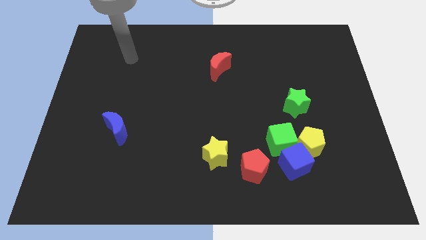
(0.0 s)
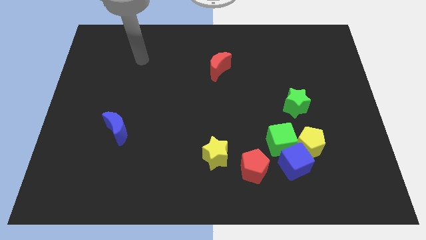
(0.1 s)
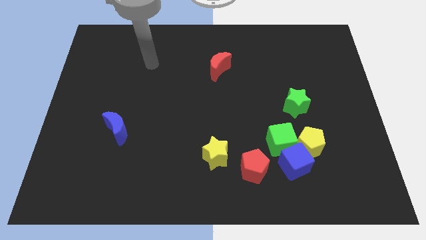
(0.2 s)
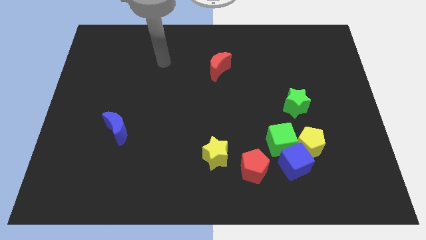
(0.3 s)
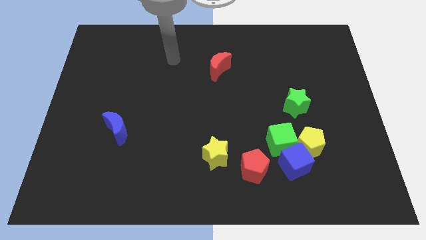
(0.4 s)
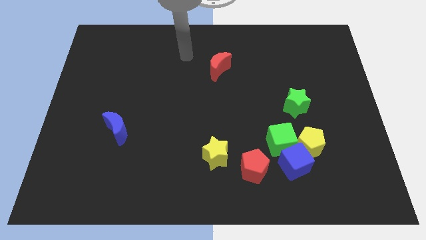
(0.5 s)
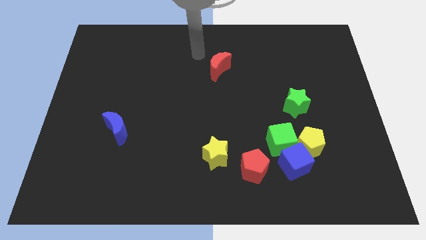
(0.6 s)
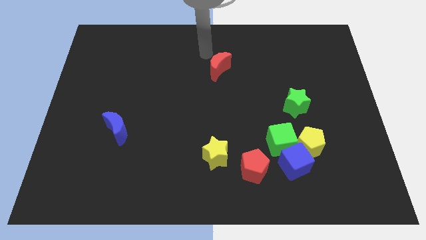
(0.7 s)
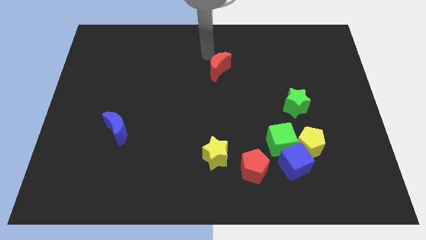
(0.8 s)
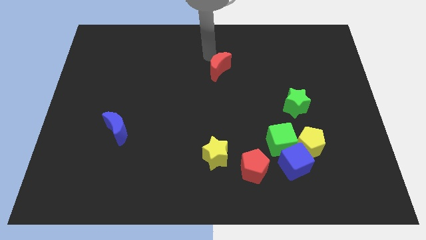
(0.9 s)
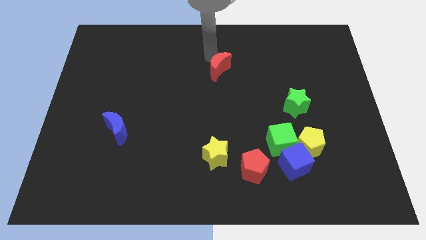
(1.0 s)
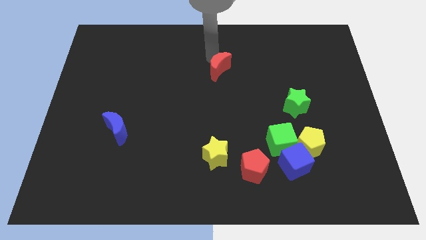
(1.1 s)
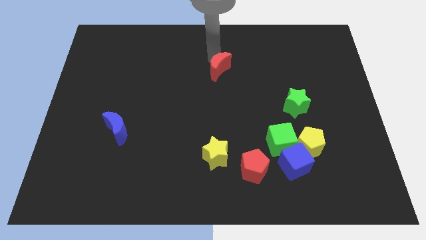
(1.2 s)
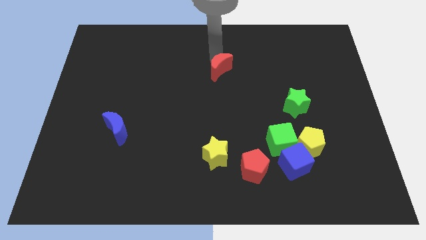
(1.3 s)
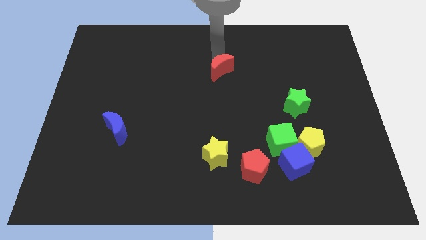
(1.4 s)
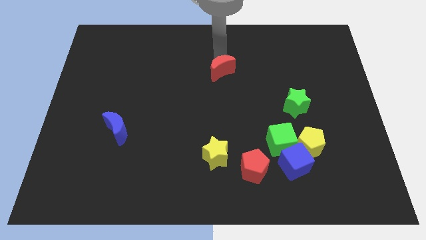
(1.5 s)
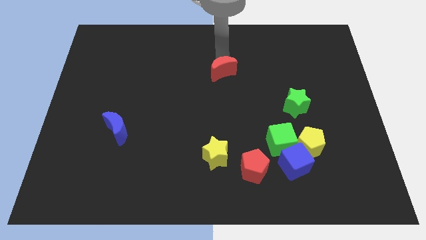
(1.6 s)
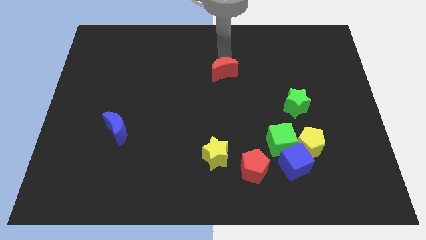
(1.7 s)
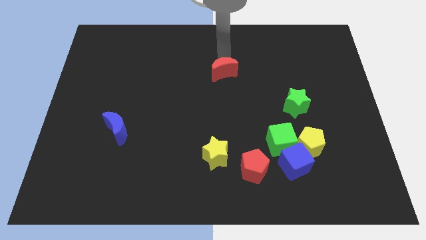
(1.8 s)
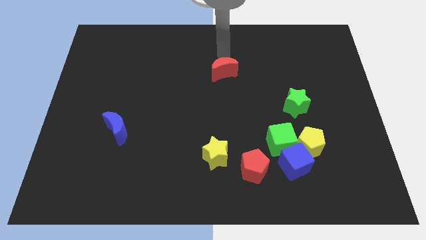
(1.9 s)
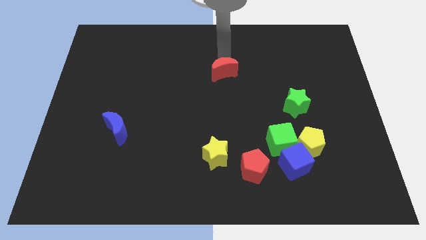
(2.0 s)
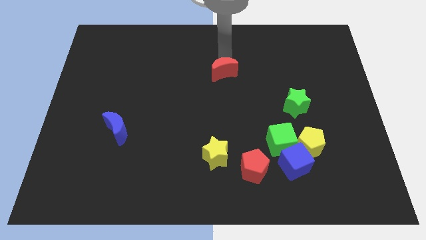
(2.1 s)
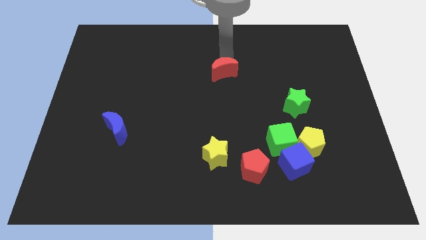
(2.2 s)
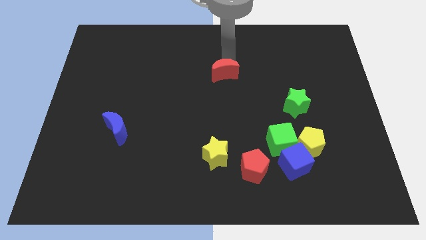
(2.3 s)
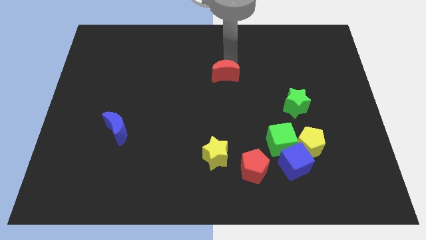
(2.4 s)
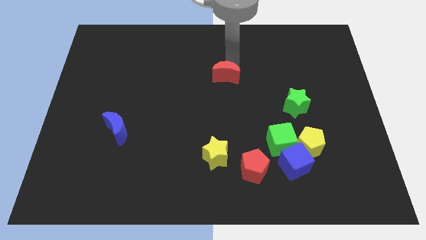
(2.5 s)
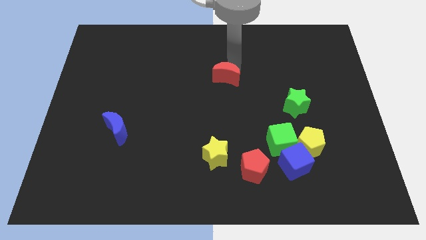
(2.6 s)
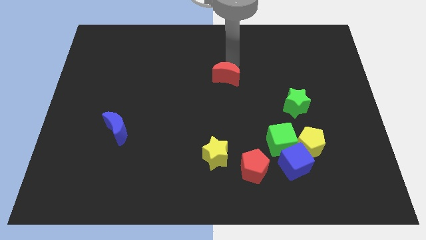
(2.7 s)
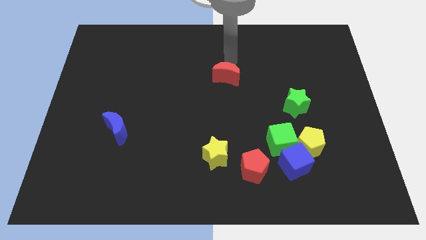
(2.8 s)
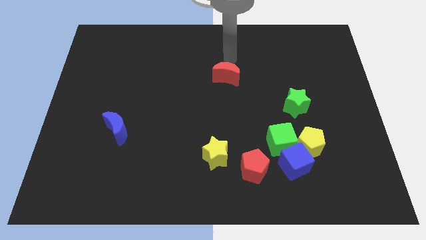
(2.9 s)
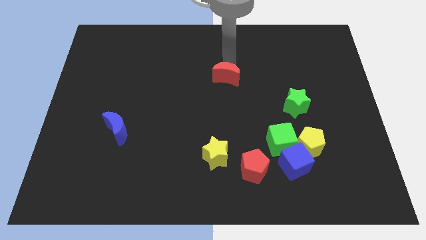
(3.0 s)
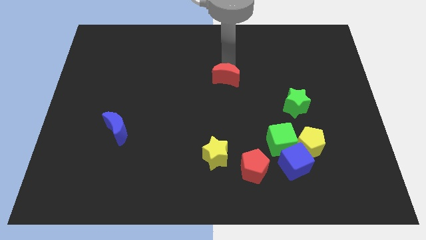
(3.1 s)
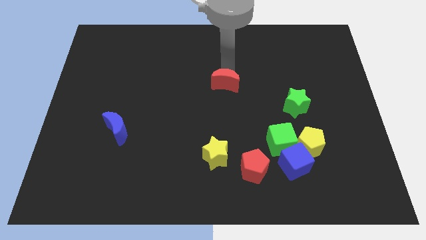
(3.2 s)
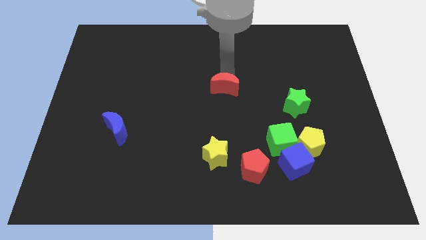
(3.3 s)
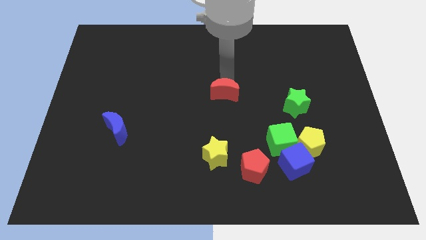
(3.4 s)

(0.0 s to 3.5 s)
push the red moon slightly downwards

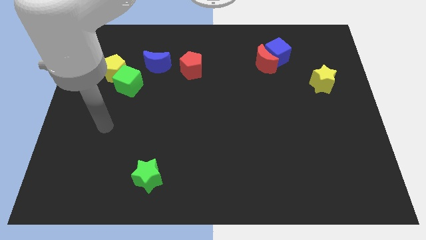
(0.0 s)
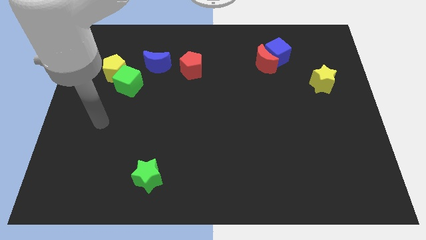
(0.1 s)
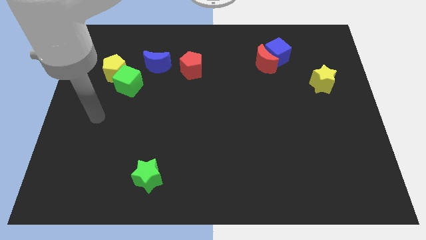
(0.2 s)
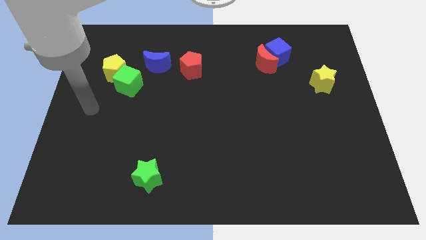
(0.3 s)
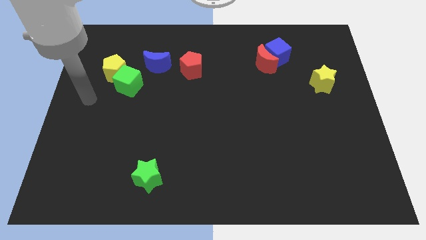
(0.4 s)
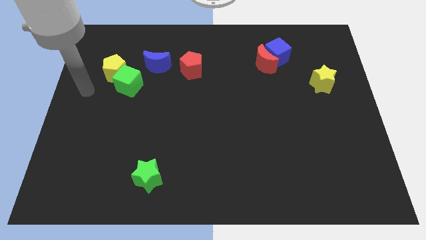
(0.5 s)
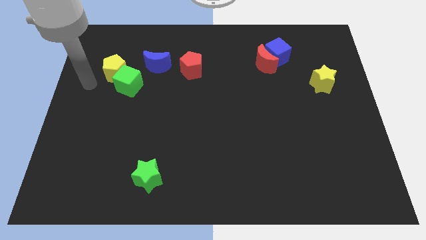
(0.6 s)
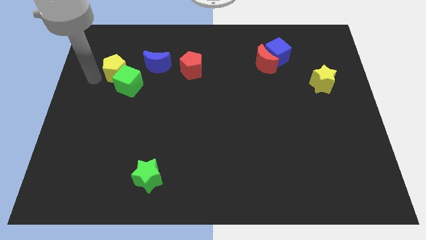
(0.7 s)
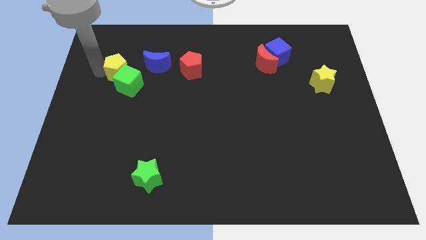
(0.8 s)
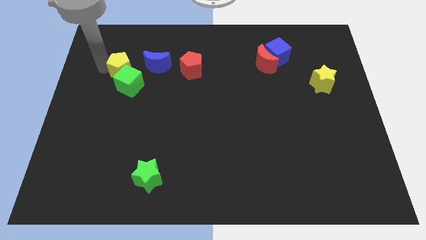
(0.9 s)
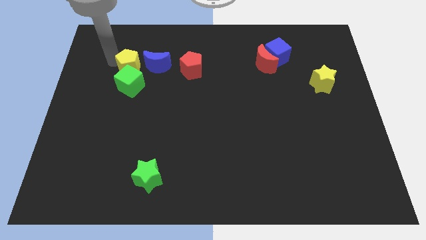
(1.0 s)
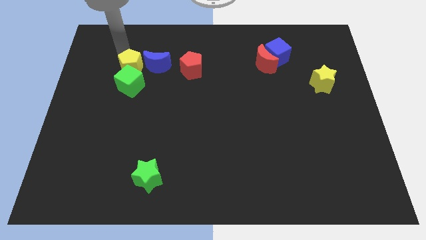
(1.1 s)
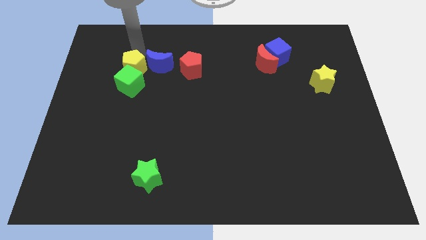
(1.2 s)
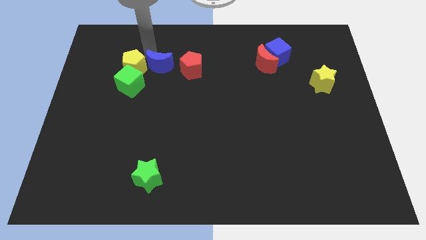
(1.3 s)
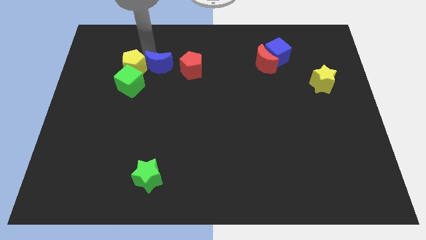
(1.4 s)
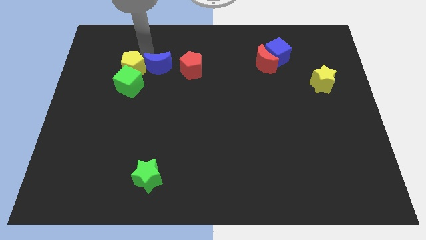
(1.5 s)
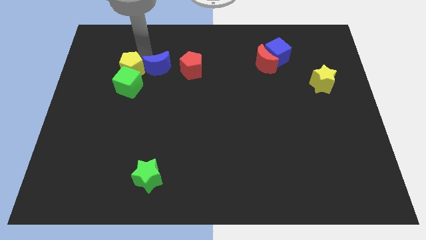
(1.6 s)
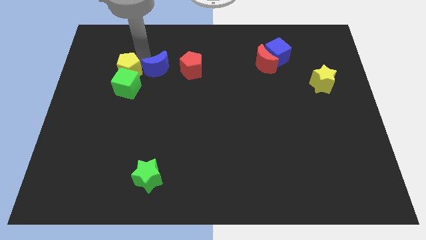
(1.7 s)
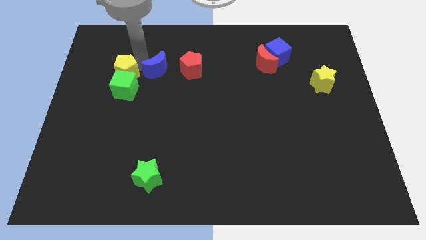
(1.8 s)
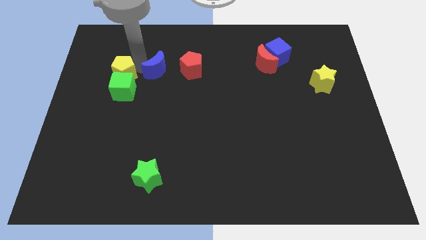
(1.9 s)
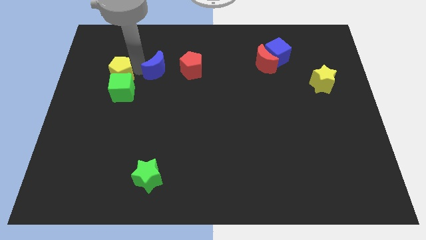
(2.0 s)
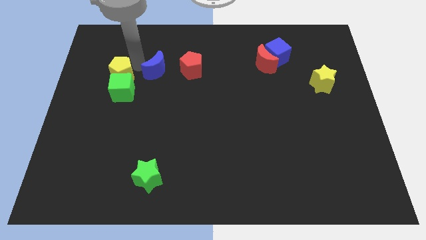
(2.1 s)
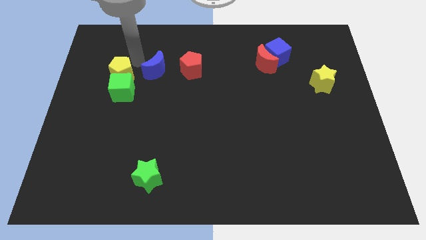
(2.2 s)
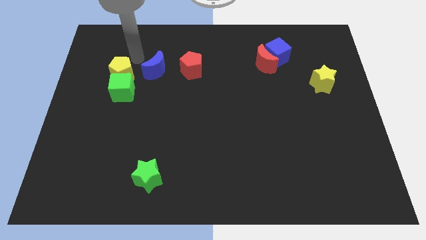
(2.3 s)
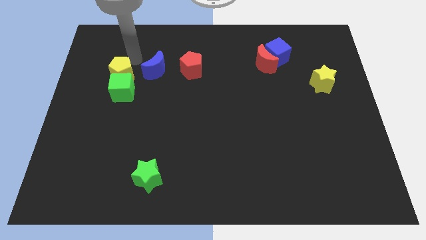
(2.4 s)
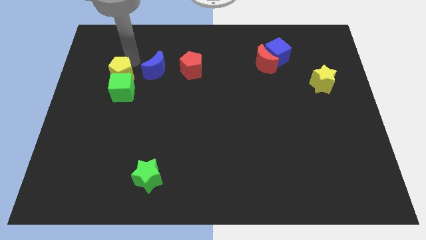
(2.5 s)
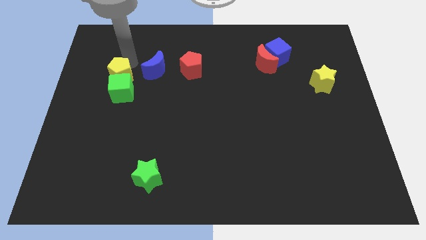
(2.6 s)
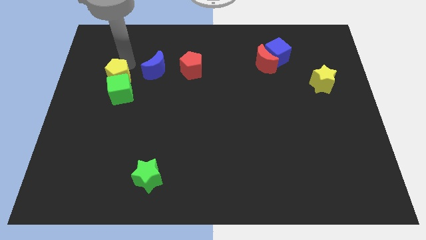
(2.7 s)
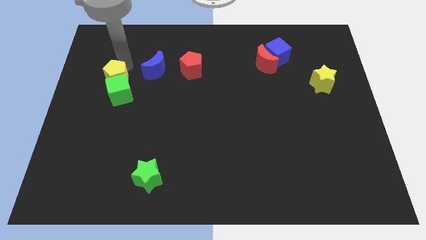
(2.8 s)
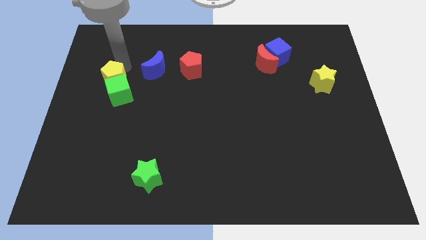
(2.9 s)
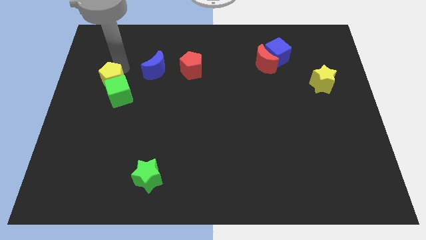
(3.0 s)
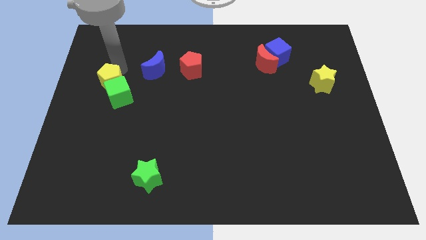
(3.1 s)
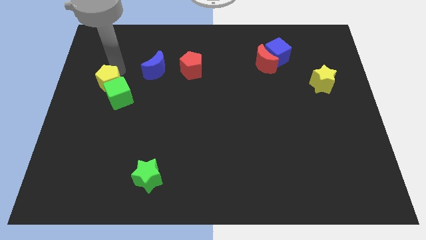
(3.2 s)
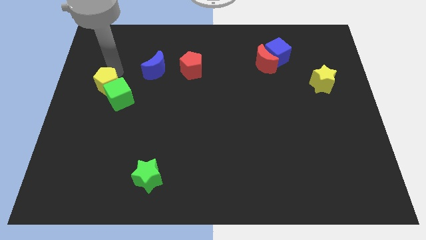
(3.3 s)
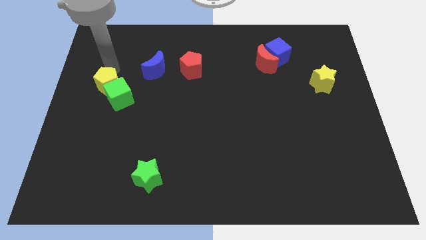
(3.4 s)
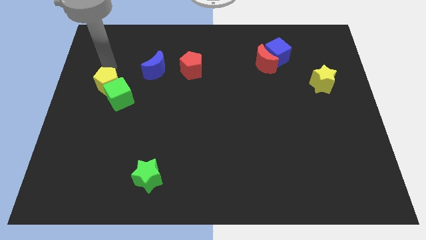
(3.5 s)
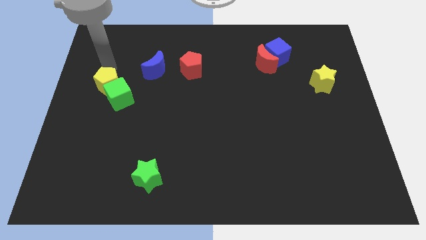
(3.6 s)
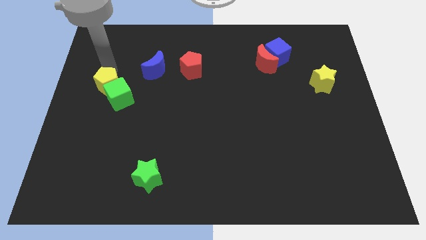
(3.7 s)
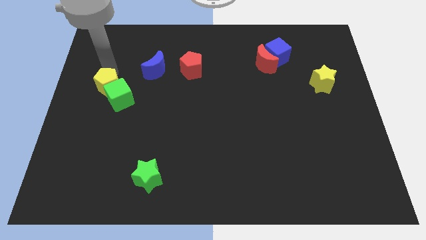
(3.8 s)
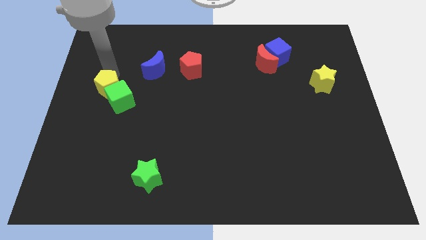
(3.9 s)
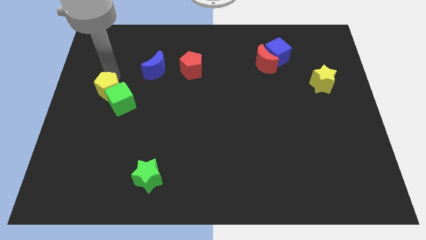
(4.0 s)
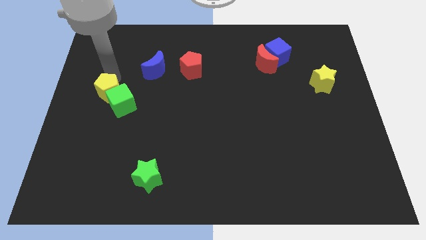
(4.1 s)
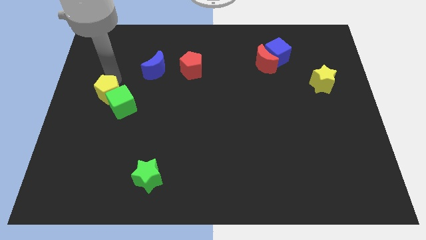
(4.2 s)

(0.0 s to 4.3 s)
move the yellow pentagon downwards somewhat
